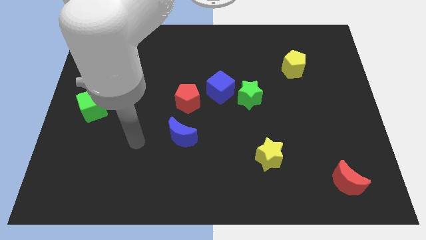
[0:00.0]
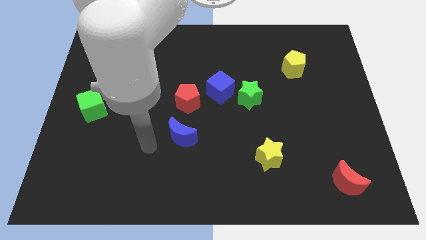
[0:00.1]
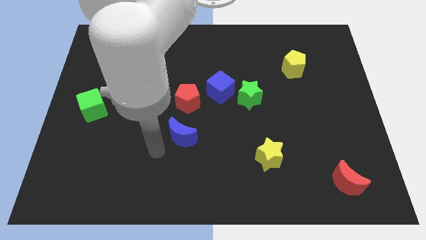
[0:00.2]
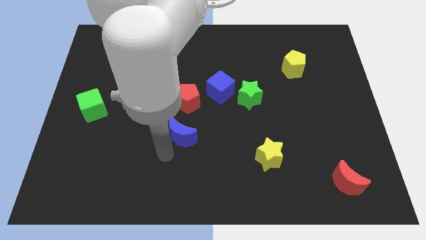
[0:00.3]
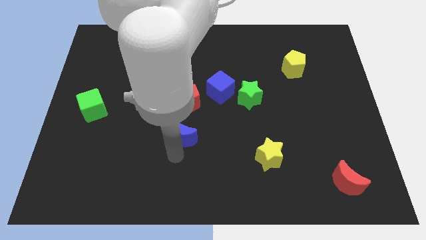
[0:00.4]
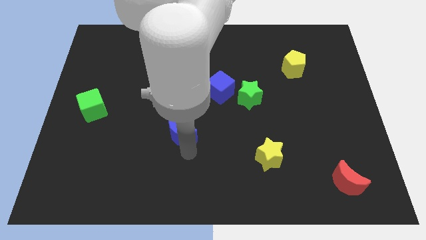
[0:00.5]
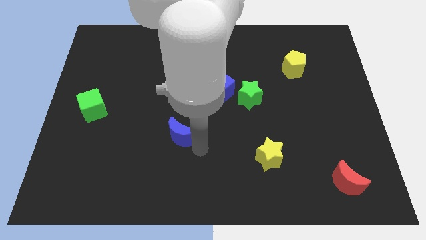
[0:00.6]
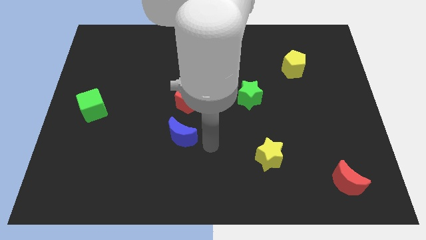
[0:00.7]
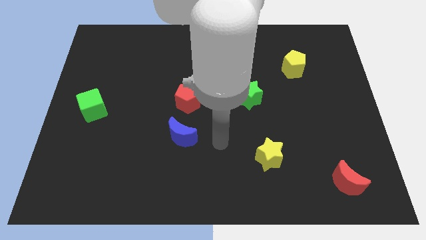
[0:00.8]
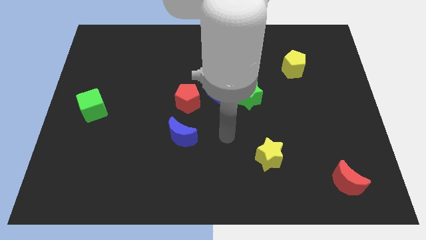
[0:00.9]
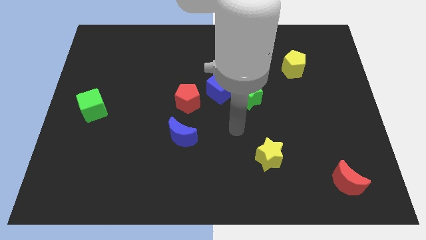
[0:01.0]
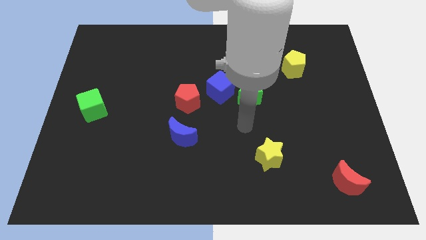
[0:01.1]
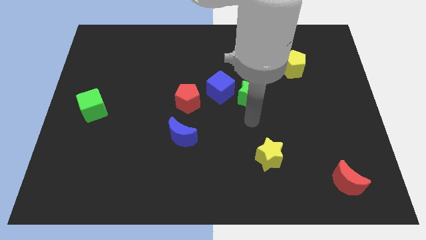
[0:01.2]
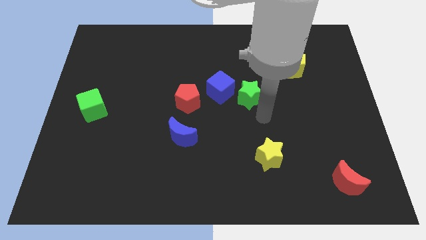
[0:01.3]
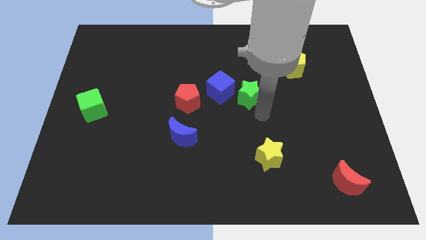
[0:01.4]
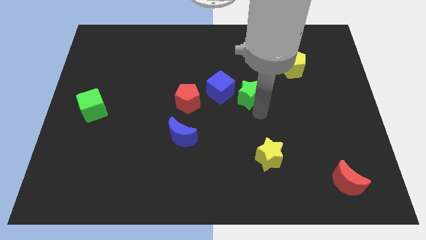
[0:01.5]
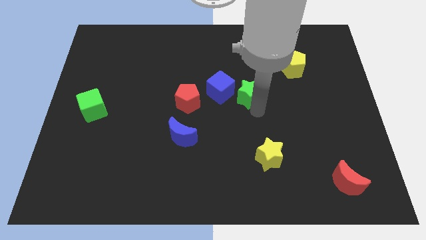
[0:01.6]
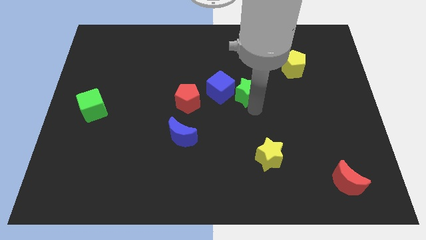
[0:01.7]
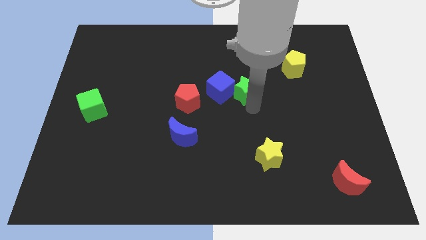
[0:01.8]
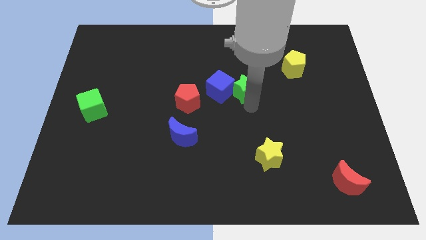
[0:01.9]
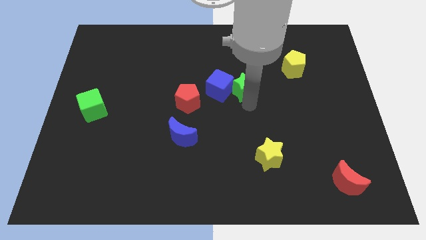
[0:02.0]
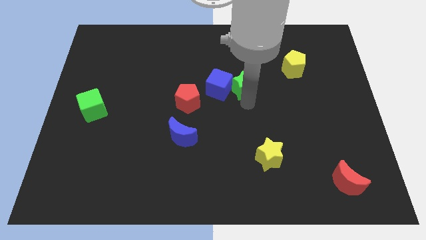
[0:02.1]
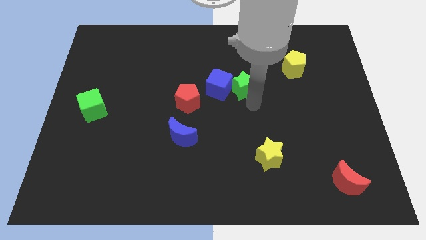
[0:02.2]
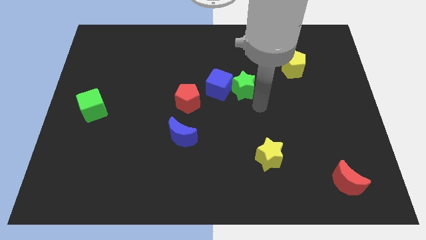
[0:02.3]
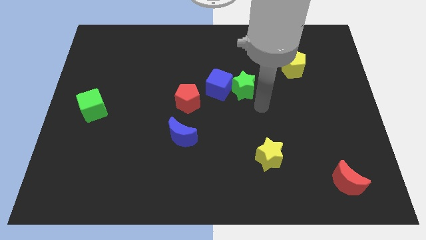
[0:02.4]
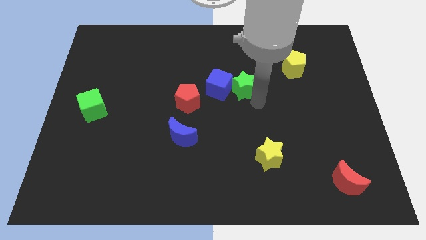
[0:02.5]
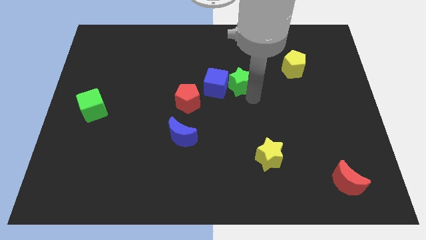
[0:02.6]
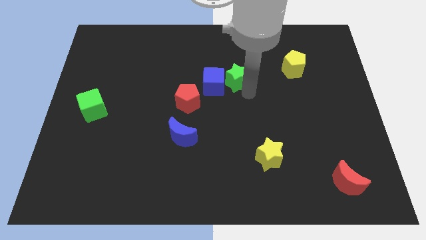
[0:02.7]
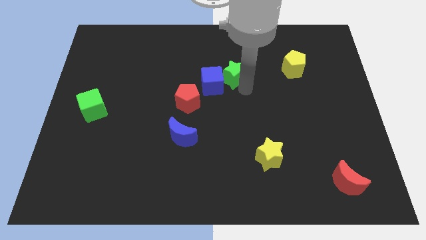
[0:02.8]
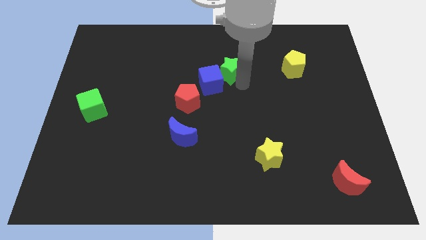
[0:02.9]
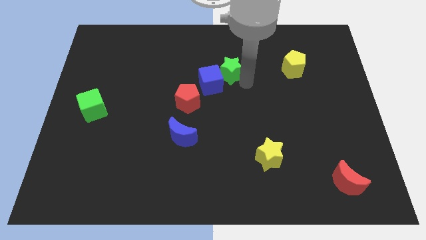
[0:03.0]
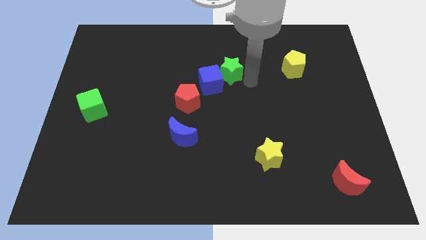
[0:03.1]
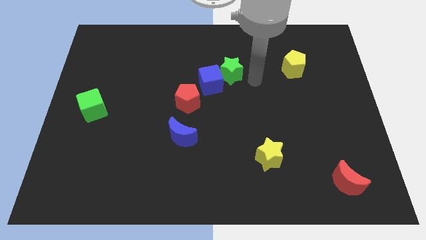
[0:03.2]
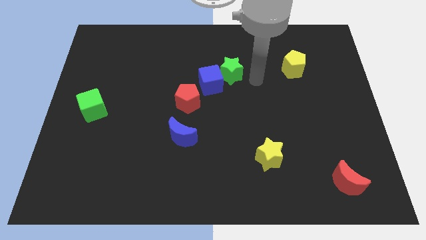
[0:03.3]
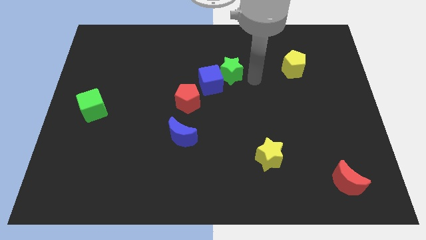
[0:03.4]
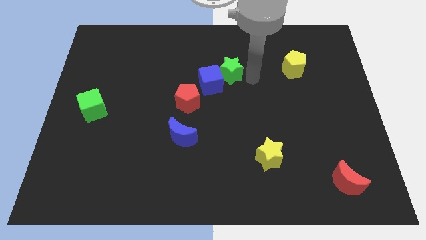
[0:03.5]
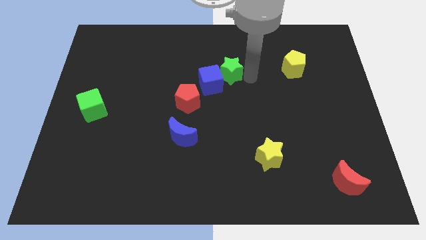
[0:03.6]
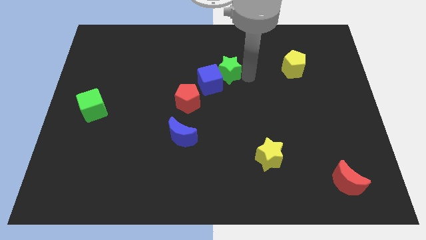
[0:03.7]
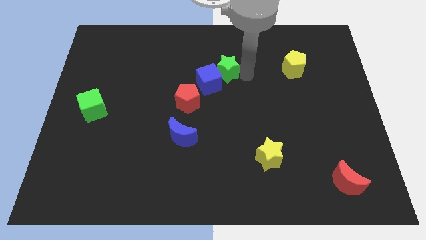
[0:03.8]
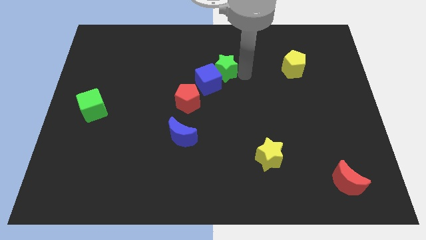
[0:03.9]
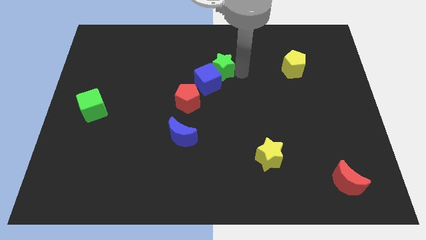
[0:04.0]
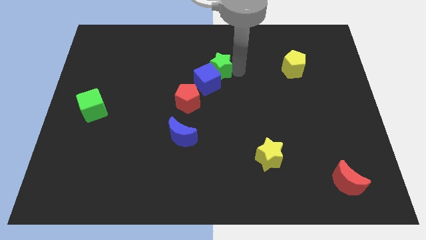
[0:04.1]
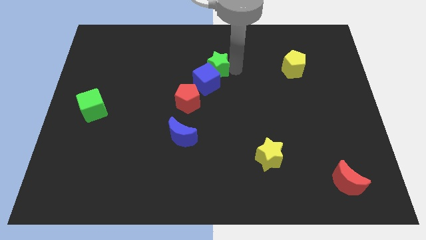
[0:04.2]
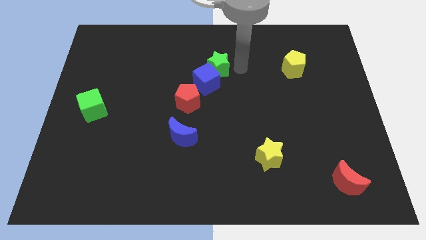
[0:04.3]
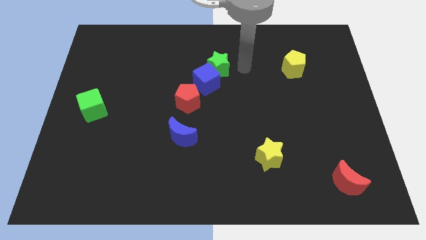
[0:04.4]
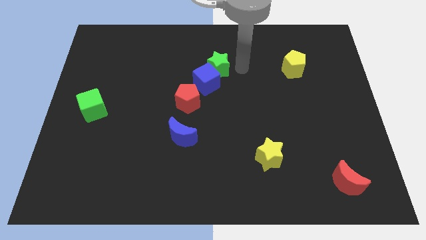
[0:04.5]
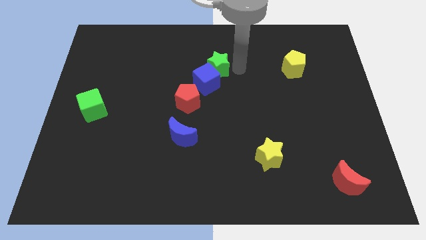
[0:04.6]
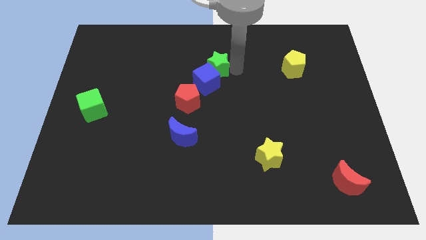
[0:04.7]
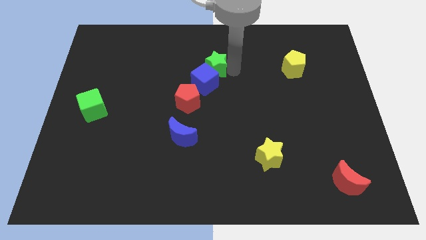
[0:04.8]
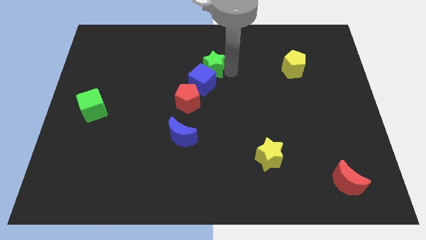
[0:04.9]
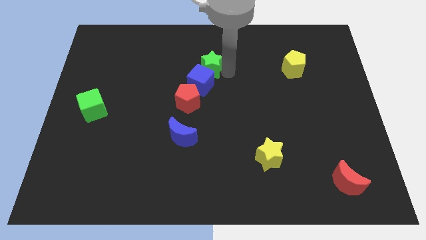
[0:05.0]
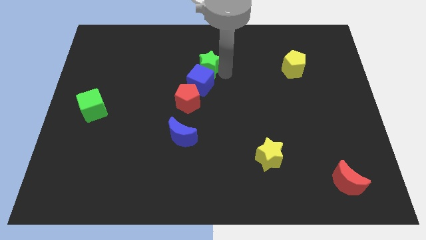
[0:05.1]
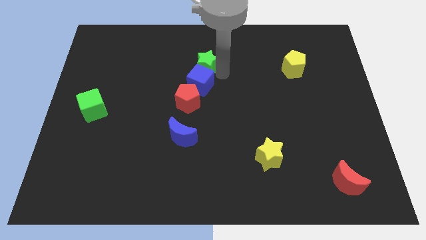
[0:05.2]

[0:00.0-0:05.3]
slide the green star to the top of the red pentagon

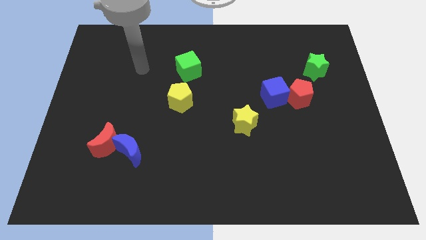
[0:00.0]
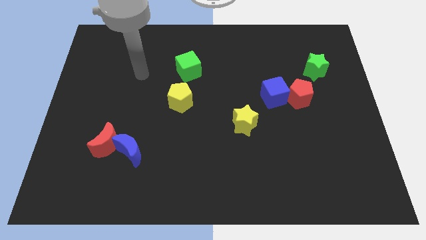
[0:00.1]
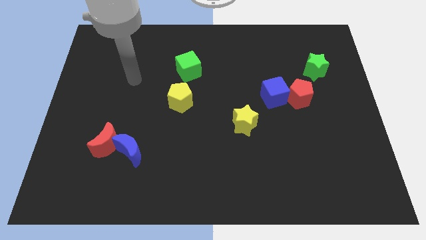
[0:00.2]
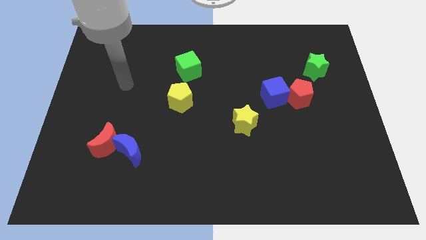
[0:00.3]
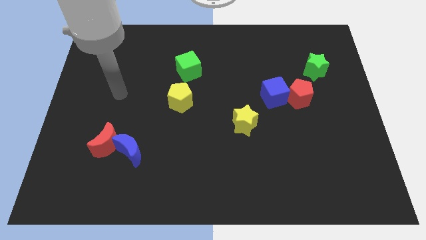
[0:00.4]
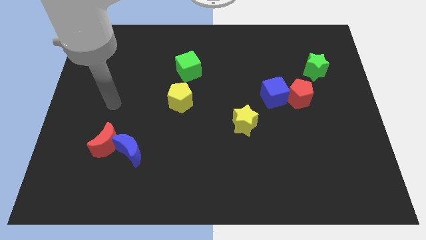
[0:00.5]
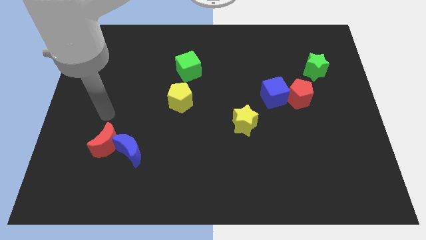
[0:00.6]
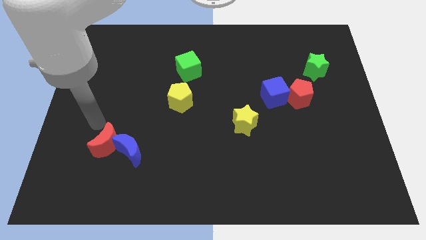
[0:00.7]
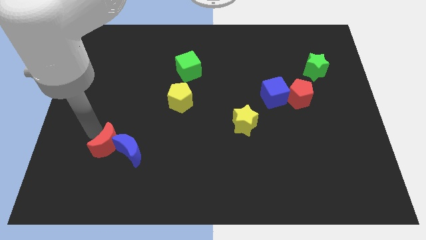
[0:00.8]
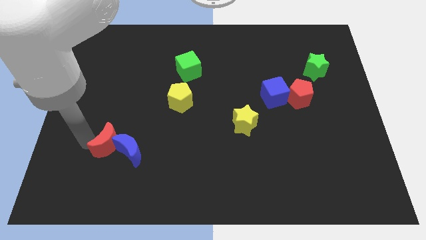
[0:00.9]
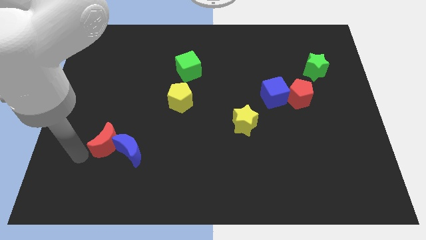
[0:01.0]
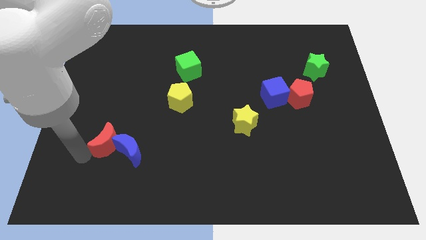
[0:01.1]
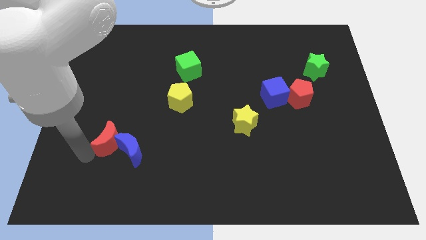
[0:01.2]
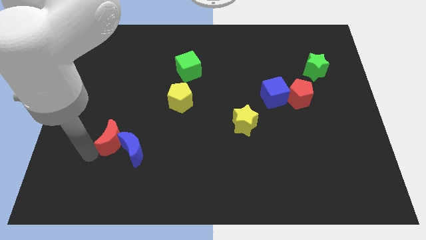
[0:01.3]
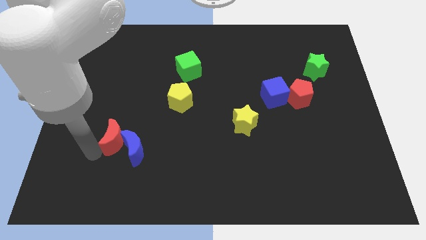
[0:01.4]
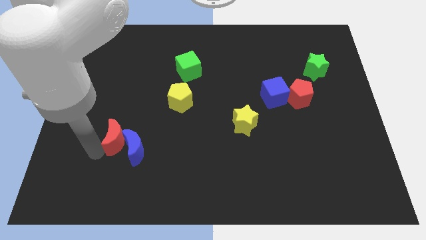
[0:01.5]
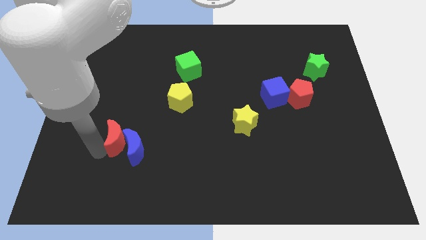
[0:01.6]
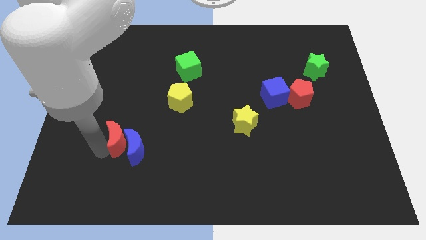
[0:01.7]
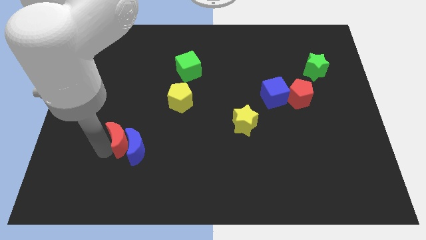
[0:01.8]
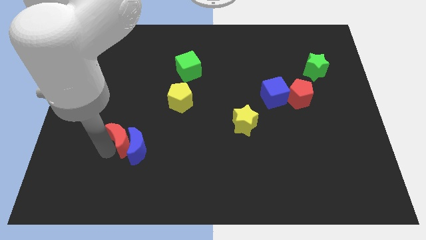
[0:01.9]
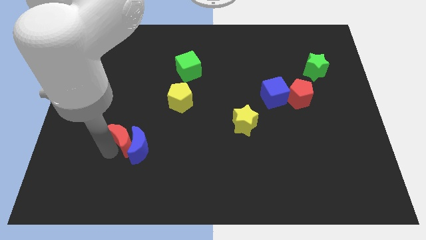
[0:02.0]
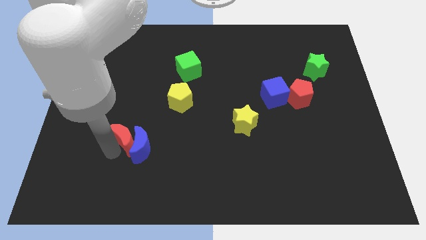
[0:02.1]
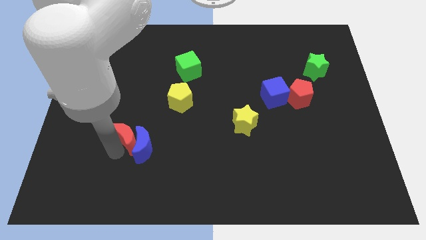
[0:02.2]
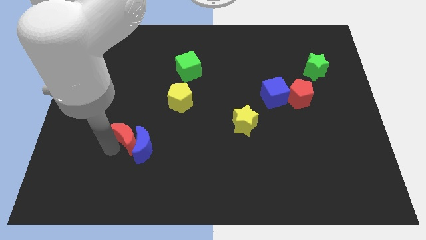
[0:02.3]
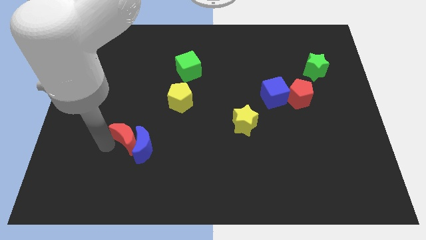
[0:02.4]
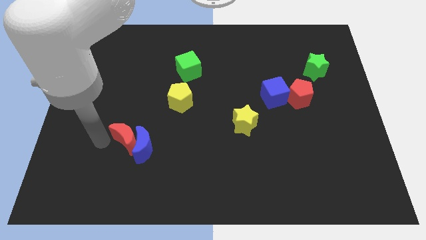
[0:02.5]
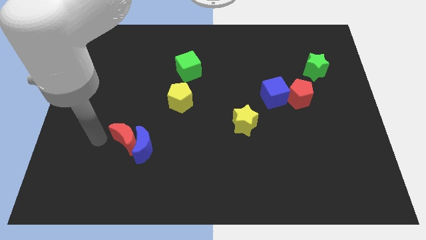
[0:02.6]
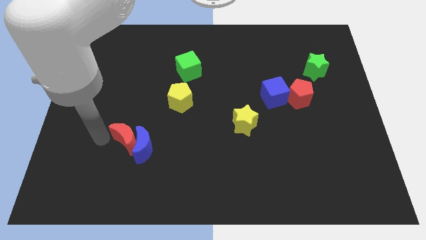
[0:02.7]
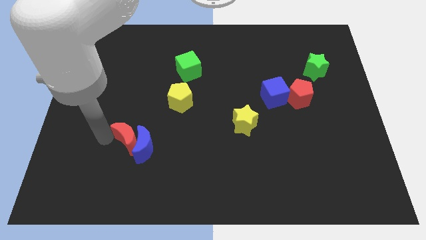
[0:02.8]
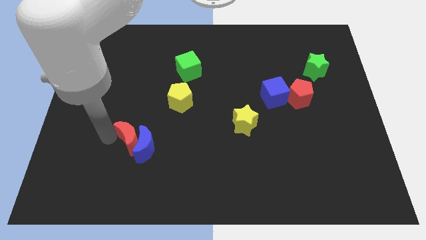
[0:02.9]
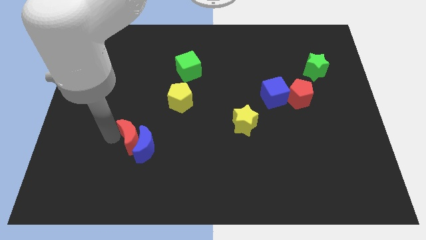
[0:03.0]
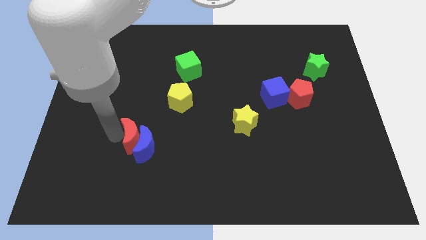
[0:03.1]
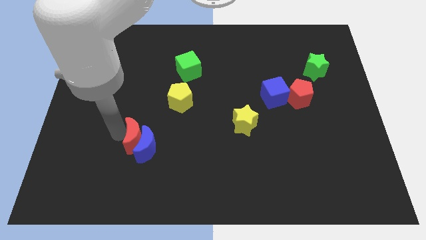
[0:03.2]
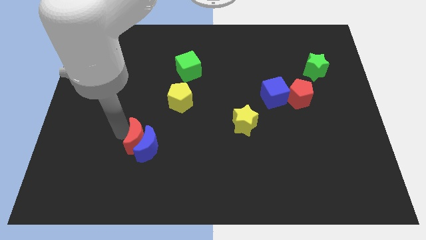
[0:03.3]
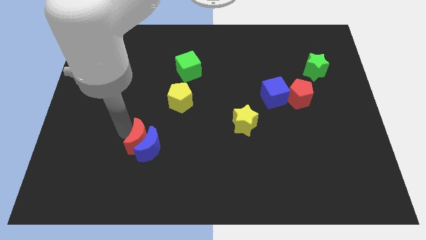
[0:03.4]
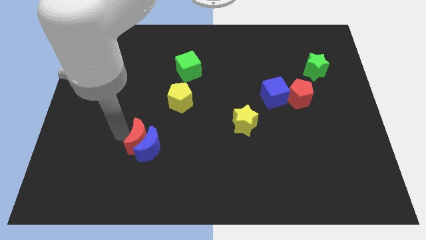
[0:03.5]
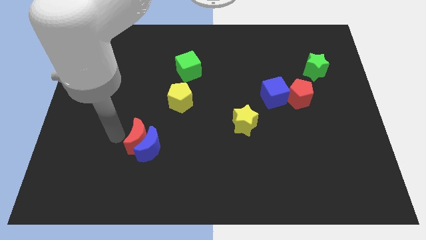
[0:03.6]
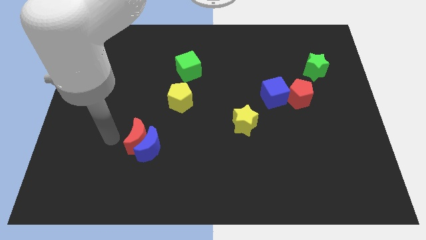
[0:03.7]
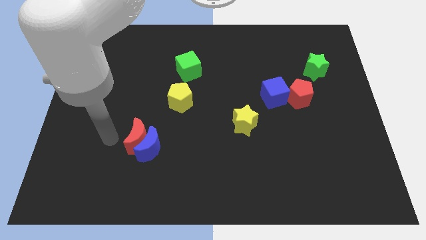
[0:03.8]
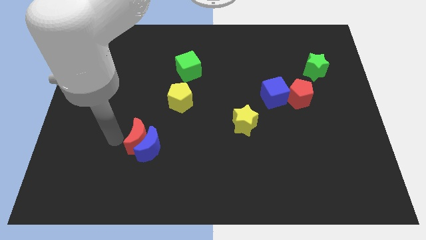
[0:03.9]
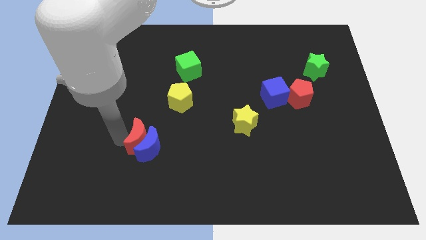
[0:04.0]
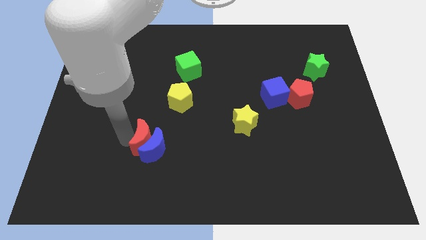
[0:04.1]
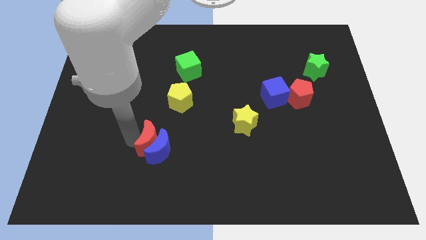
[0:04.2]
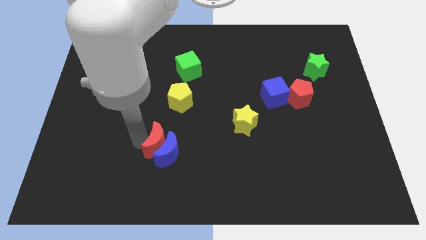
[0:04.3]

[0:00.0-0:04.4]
put the red moon to the bottom of the yellow pentagon
